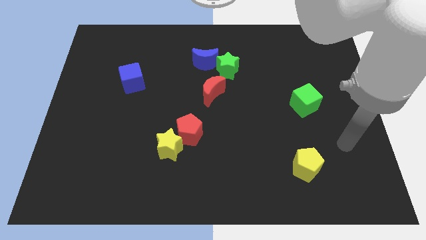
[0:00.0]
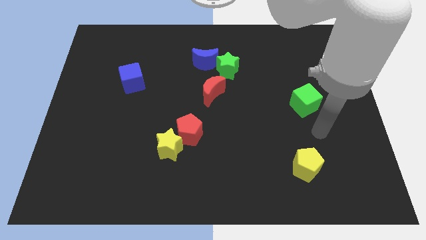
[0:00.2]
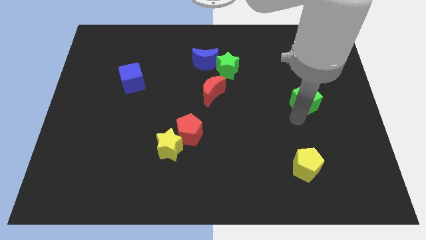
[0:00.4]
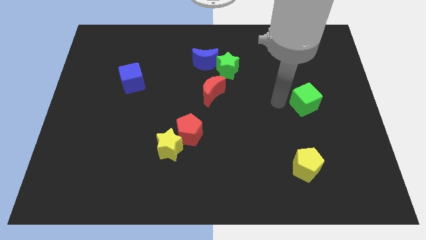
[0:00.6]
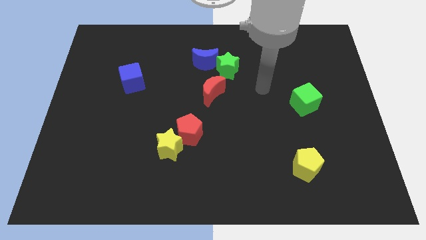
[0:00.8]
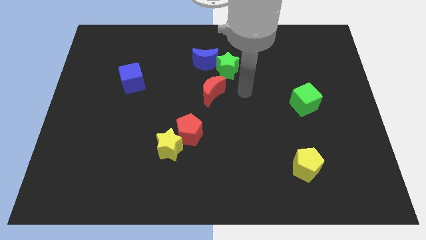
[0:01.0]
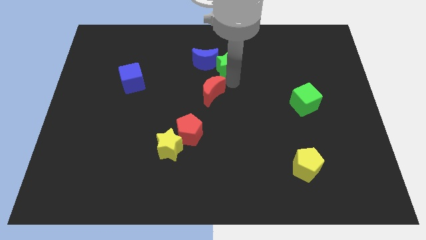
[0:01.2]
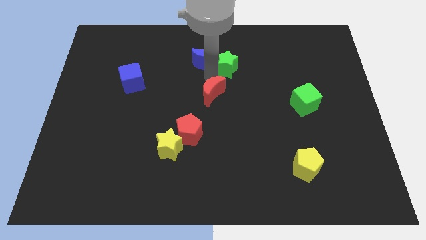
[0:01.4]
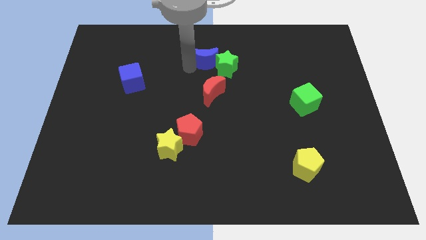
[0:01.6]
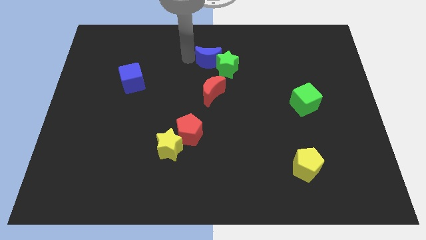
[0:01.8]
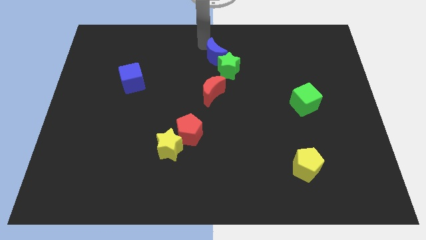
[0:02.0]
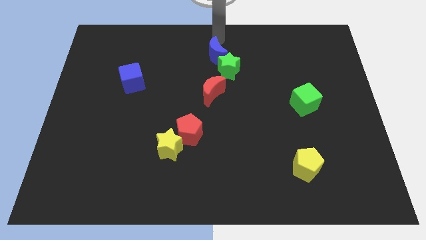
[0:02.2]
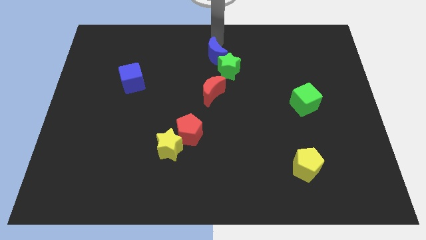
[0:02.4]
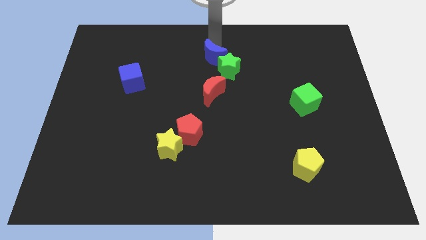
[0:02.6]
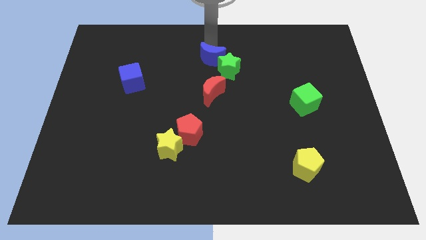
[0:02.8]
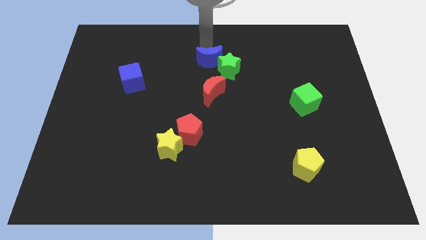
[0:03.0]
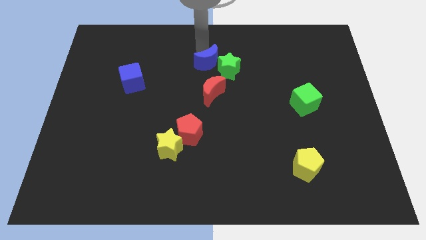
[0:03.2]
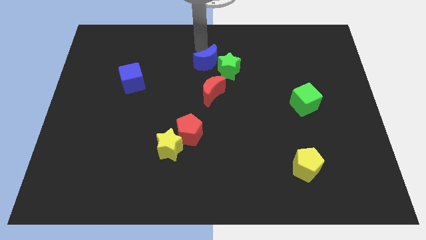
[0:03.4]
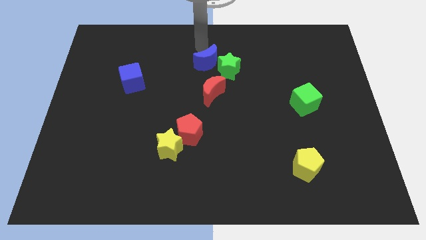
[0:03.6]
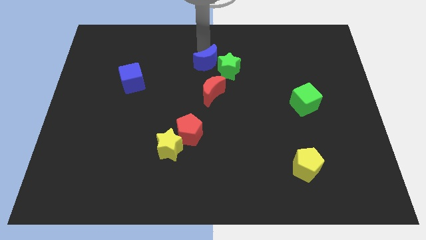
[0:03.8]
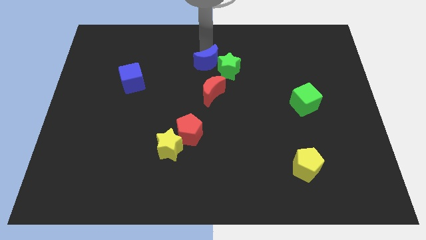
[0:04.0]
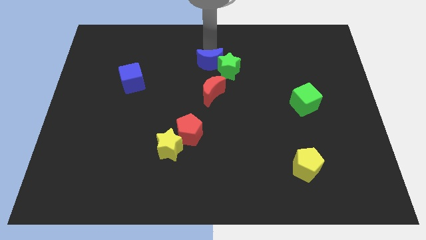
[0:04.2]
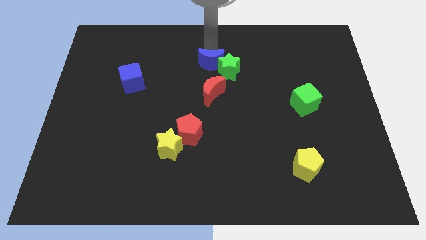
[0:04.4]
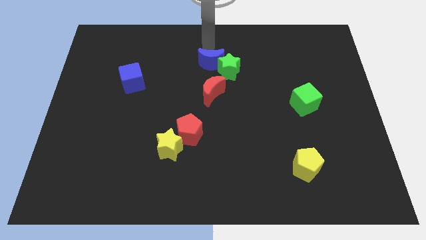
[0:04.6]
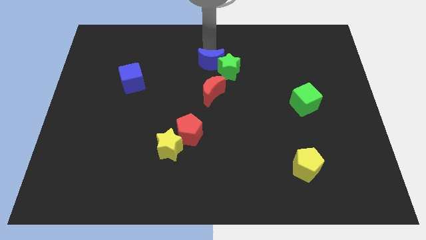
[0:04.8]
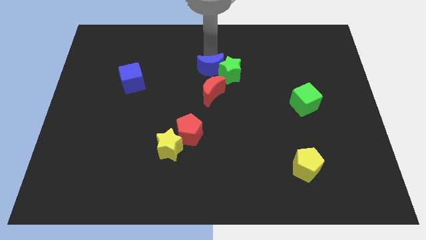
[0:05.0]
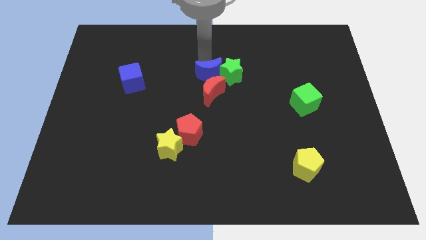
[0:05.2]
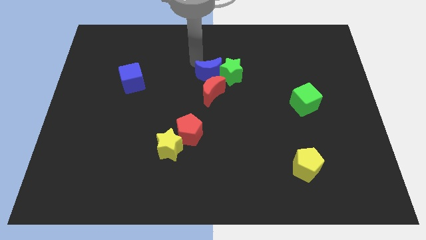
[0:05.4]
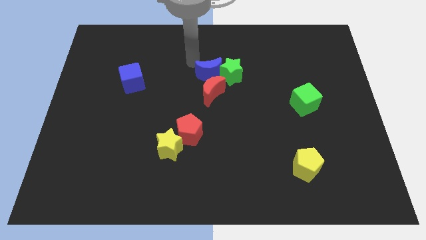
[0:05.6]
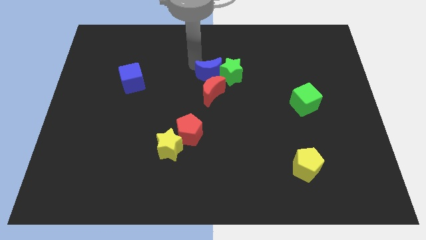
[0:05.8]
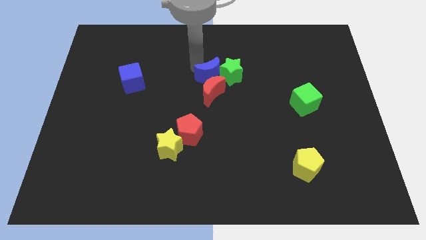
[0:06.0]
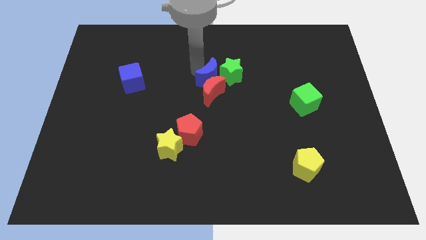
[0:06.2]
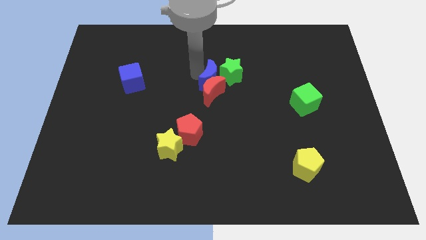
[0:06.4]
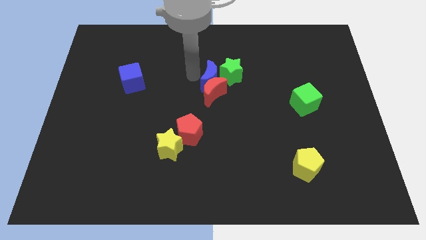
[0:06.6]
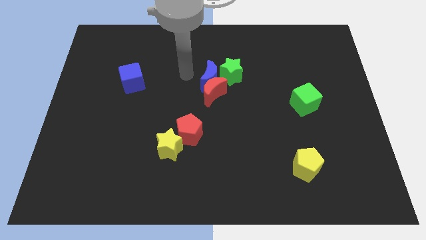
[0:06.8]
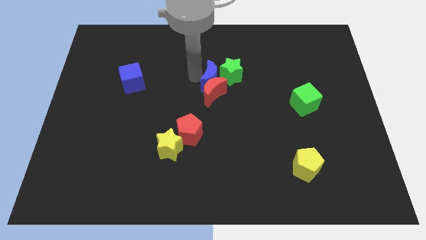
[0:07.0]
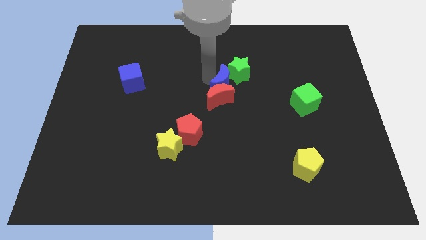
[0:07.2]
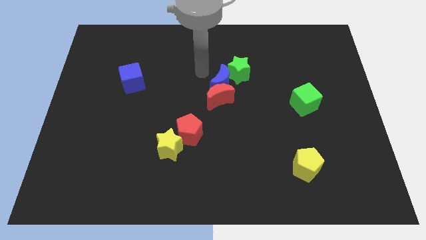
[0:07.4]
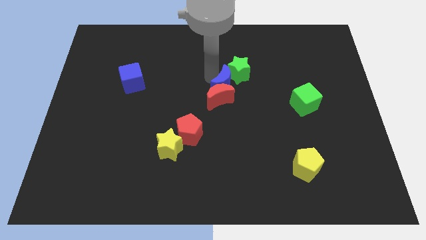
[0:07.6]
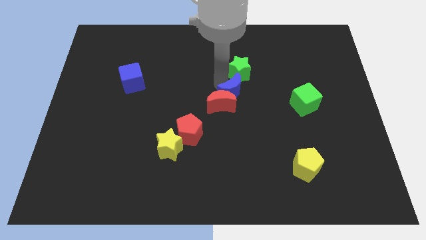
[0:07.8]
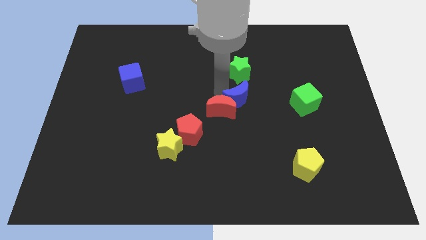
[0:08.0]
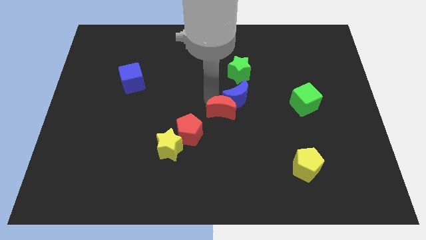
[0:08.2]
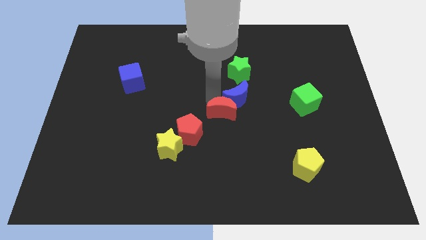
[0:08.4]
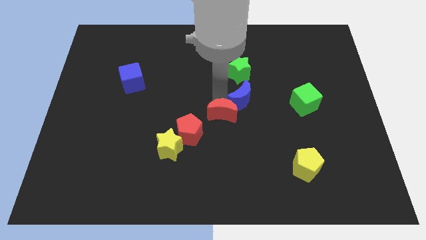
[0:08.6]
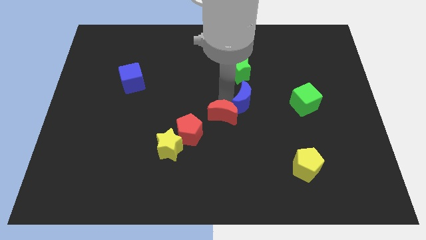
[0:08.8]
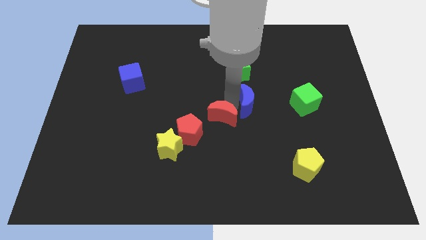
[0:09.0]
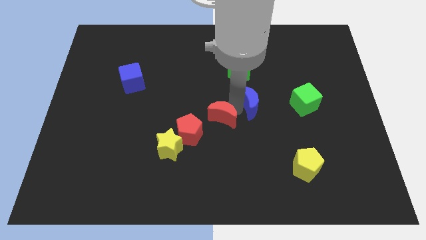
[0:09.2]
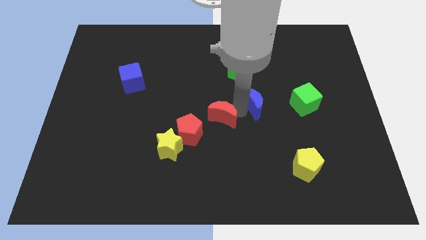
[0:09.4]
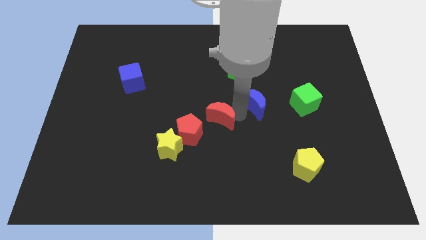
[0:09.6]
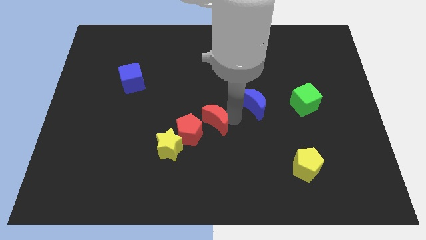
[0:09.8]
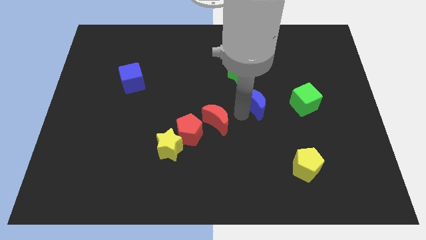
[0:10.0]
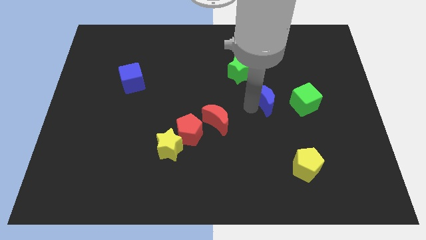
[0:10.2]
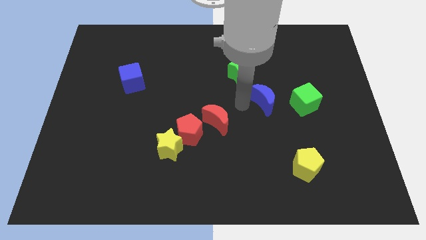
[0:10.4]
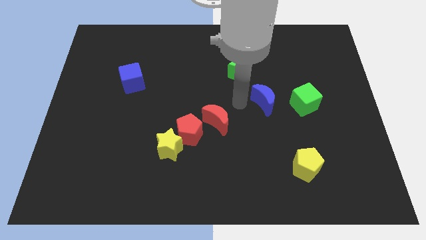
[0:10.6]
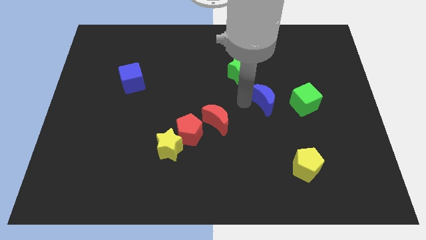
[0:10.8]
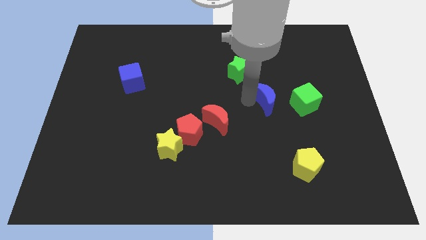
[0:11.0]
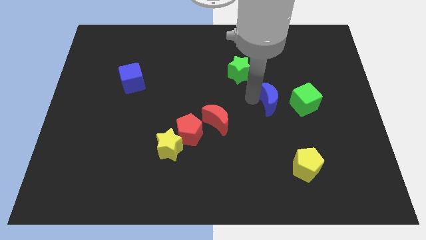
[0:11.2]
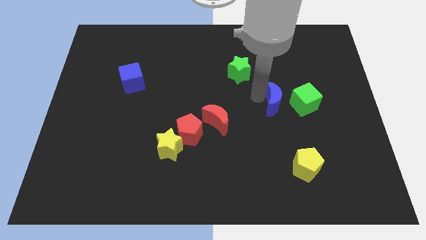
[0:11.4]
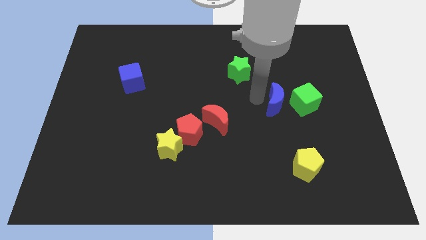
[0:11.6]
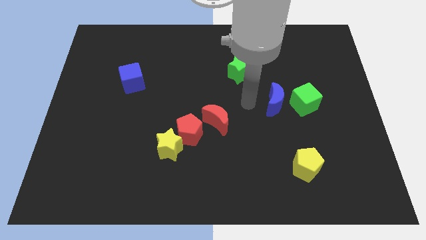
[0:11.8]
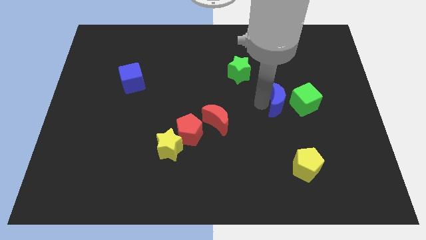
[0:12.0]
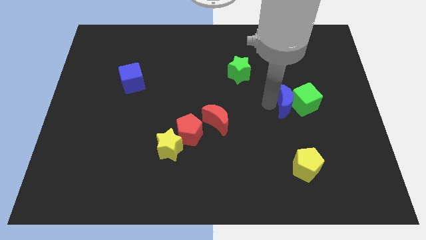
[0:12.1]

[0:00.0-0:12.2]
put the blue moon towards the green cube
